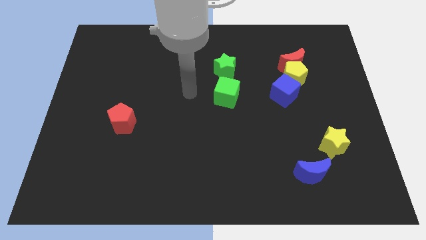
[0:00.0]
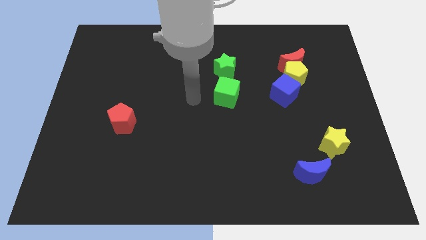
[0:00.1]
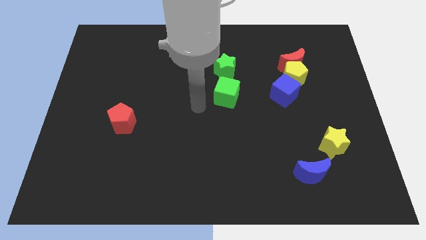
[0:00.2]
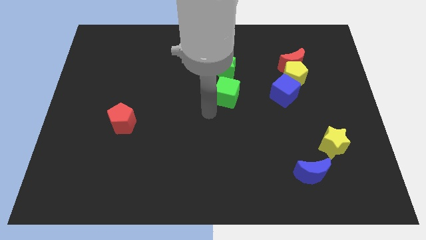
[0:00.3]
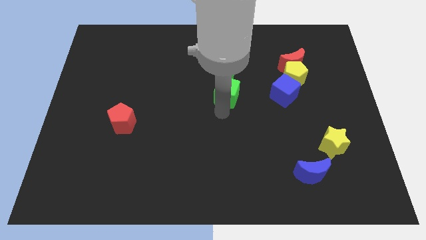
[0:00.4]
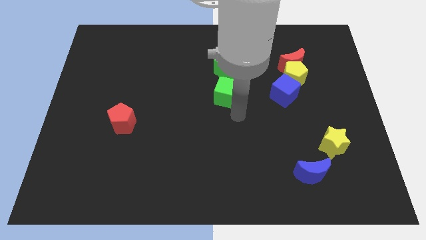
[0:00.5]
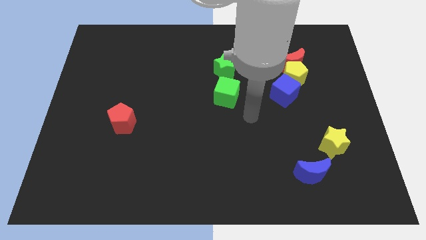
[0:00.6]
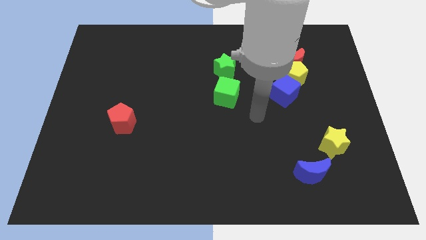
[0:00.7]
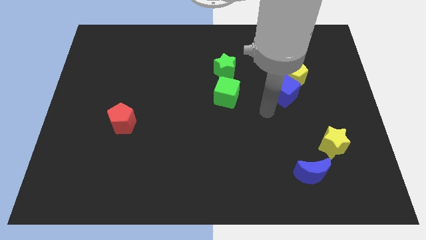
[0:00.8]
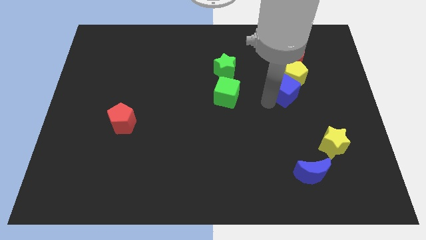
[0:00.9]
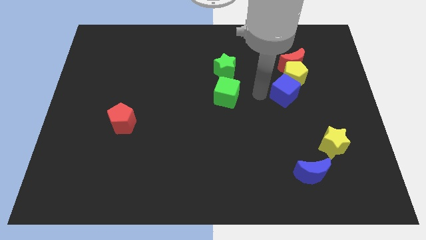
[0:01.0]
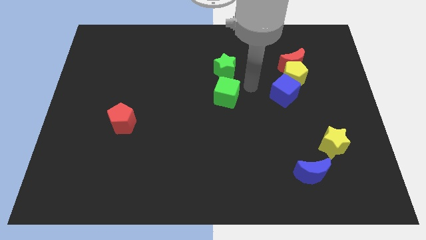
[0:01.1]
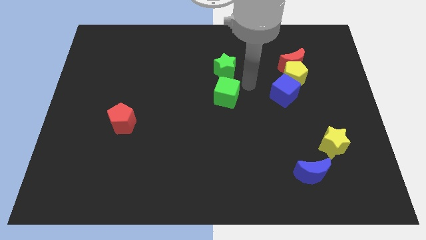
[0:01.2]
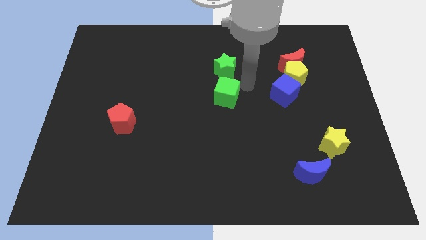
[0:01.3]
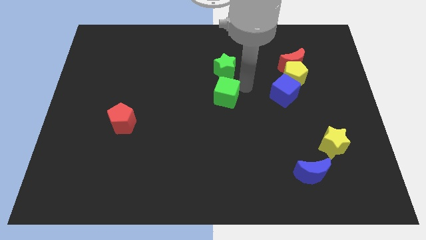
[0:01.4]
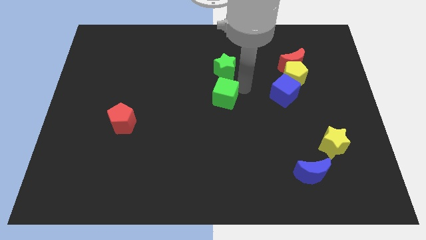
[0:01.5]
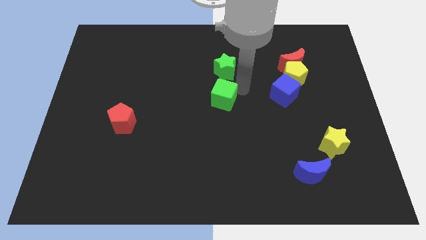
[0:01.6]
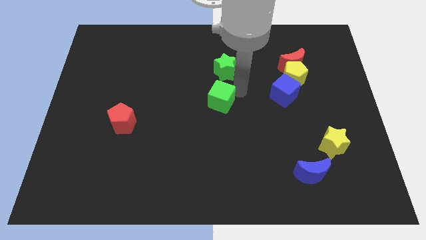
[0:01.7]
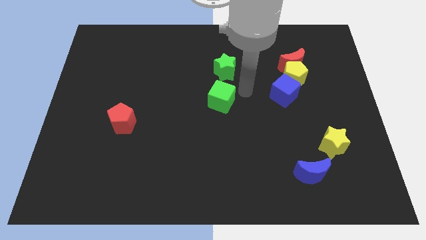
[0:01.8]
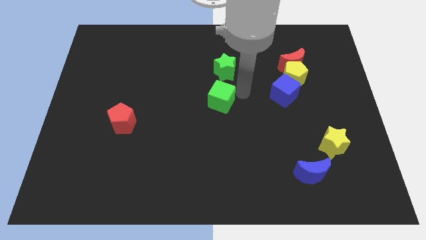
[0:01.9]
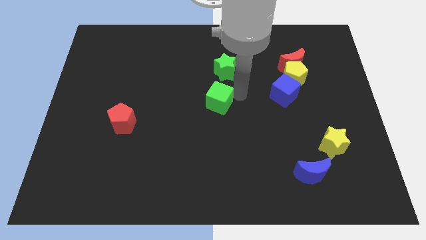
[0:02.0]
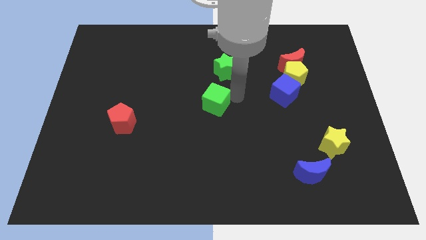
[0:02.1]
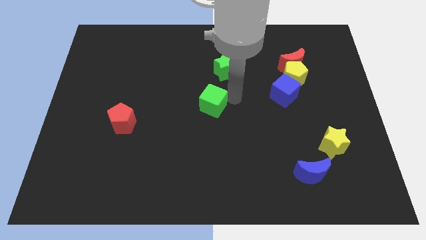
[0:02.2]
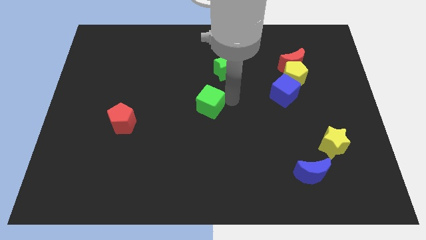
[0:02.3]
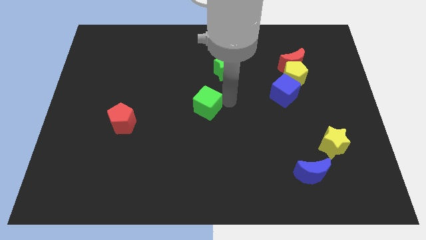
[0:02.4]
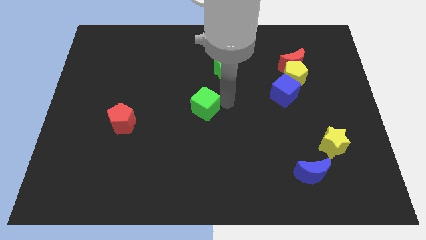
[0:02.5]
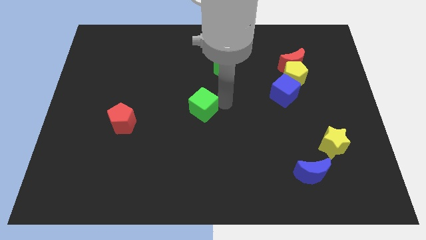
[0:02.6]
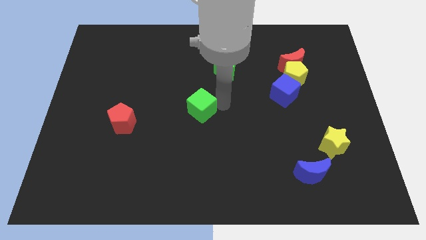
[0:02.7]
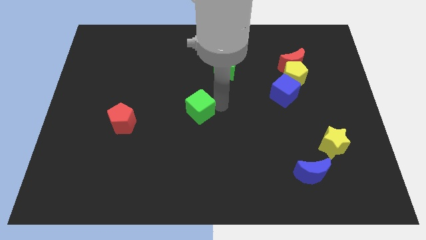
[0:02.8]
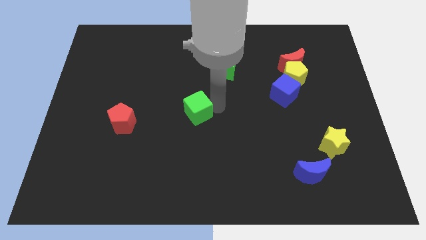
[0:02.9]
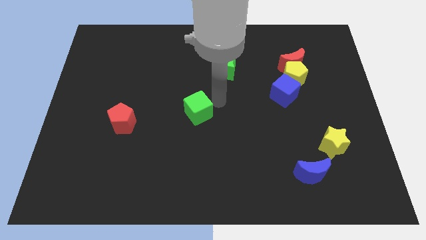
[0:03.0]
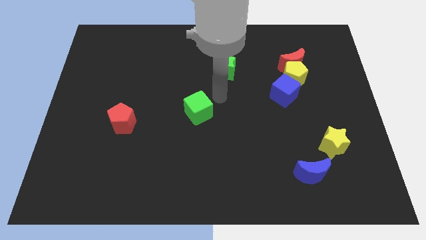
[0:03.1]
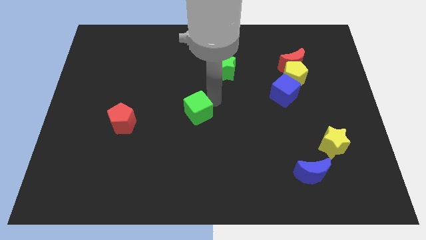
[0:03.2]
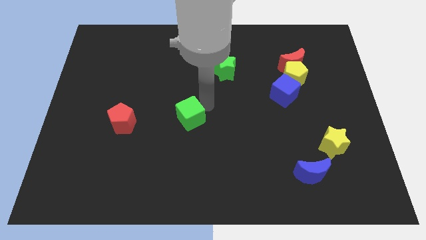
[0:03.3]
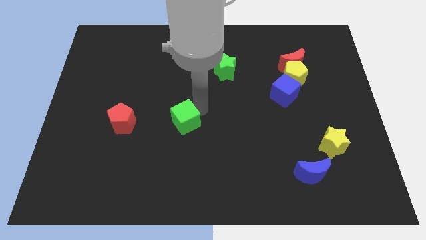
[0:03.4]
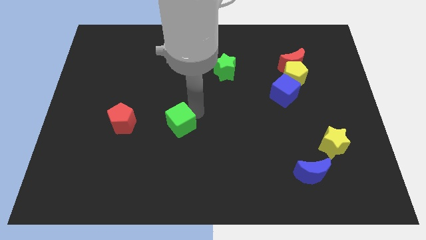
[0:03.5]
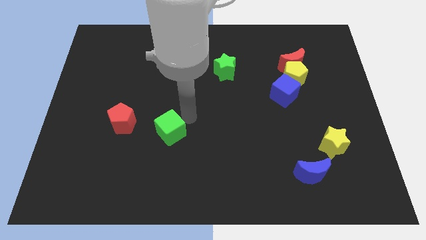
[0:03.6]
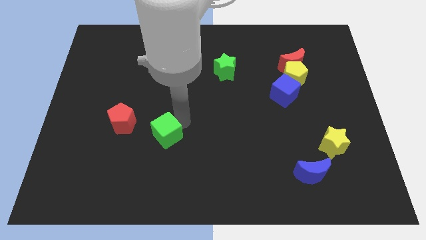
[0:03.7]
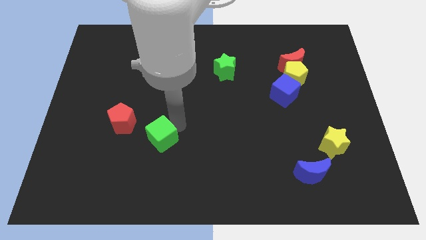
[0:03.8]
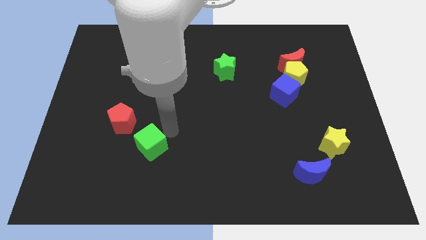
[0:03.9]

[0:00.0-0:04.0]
push the green cube diagonally down and left

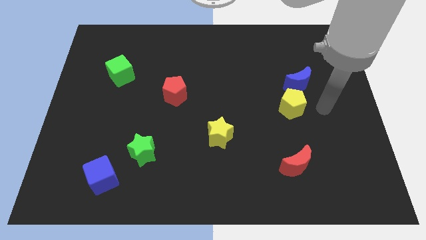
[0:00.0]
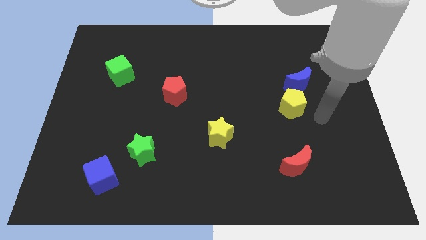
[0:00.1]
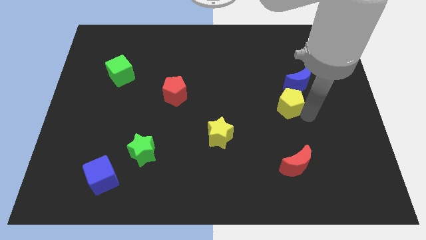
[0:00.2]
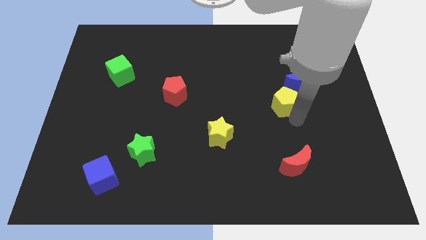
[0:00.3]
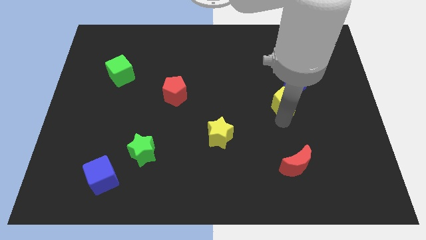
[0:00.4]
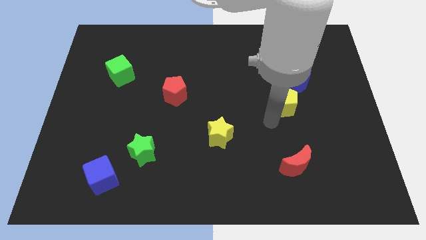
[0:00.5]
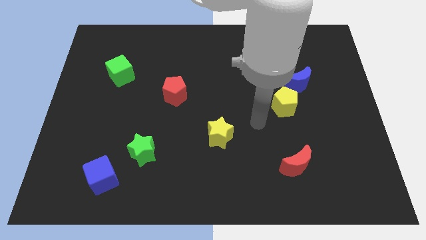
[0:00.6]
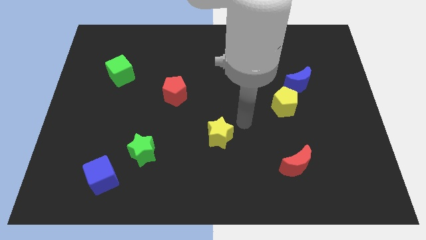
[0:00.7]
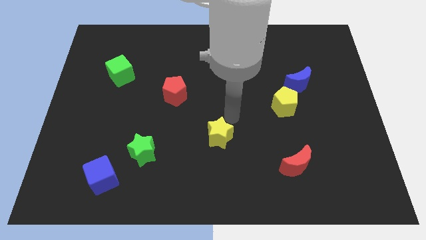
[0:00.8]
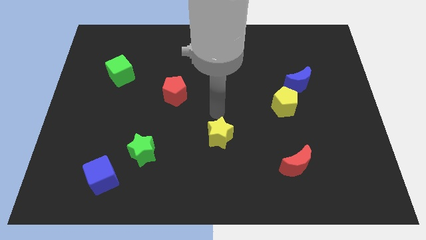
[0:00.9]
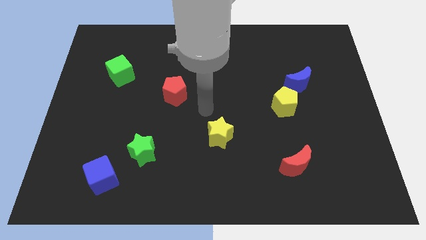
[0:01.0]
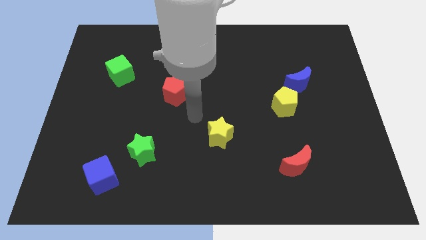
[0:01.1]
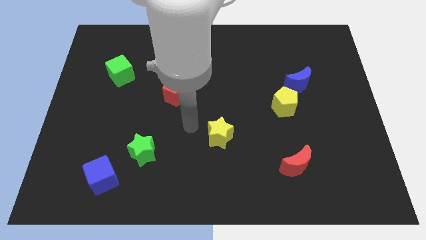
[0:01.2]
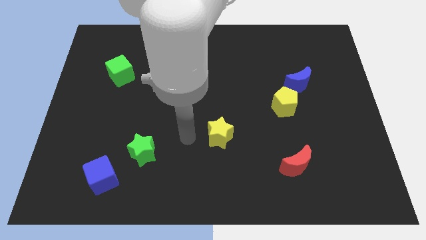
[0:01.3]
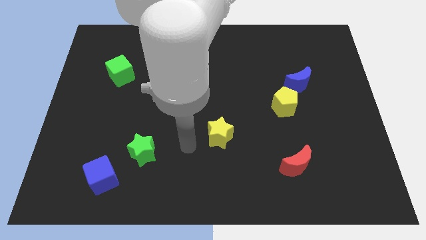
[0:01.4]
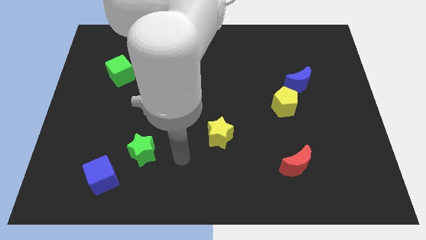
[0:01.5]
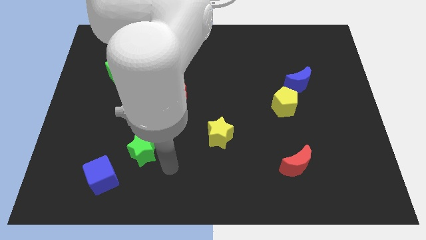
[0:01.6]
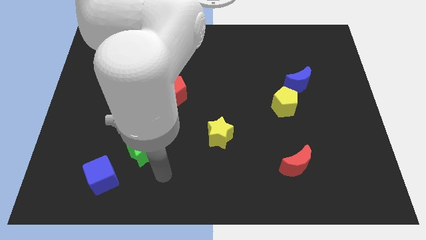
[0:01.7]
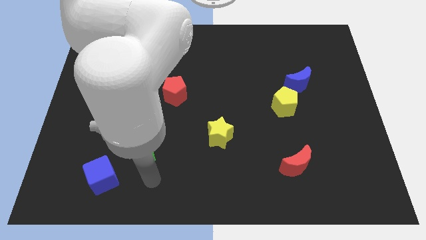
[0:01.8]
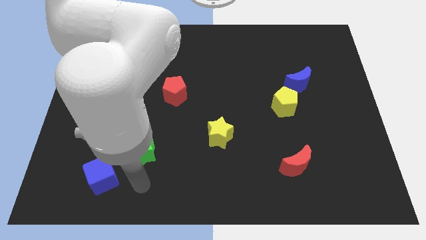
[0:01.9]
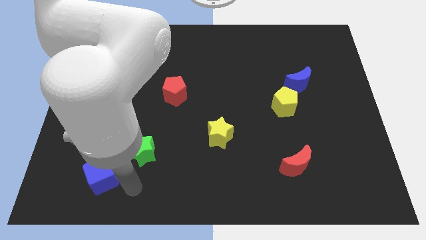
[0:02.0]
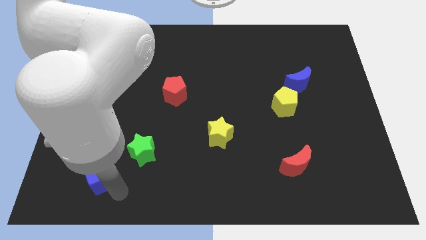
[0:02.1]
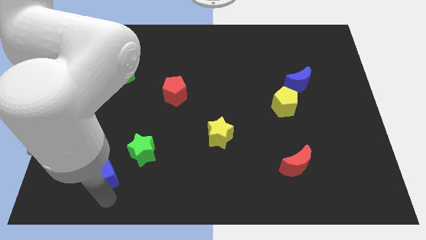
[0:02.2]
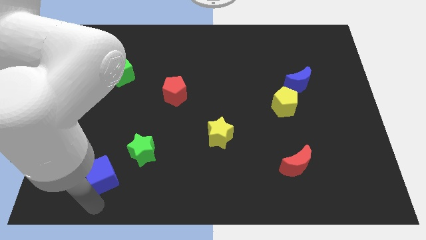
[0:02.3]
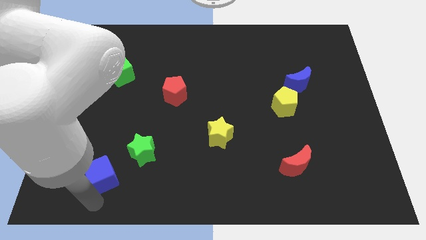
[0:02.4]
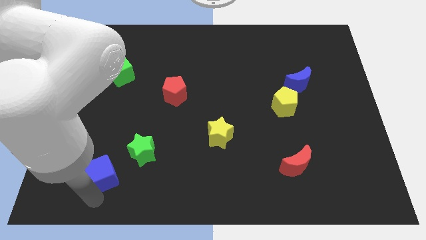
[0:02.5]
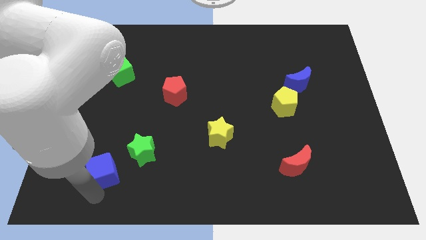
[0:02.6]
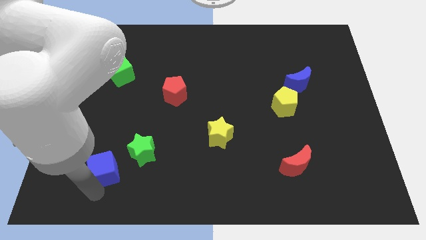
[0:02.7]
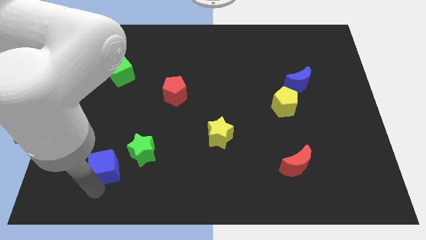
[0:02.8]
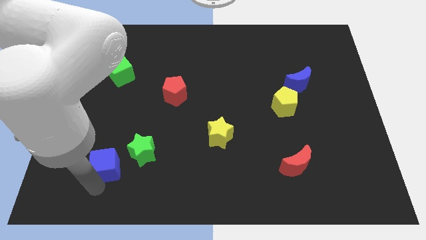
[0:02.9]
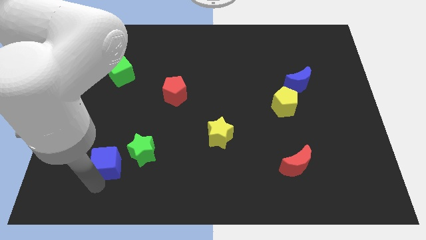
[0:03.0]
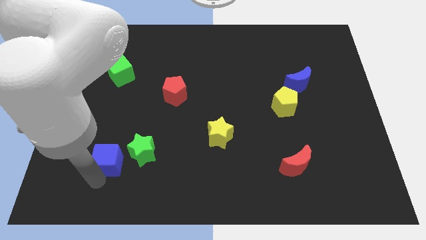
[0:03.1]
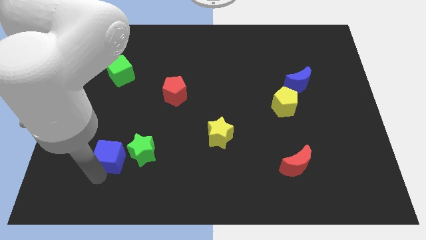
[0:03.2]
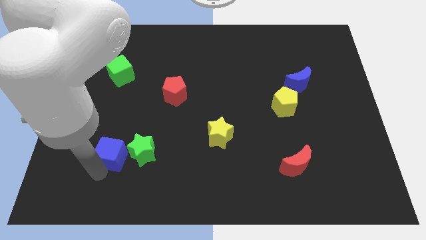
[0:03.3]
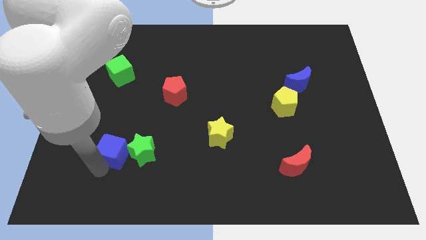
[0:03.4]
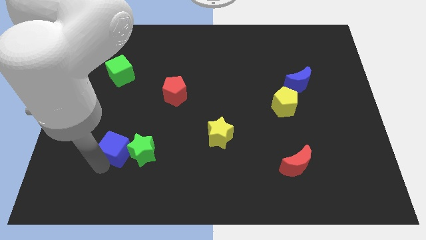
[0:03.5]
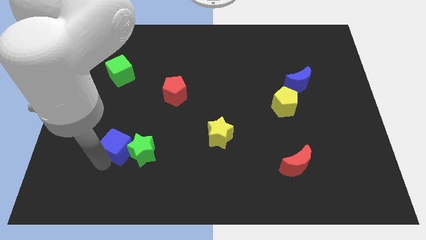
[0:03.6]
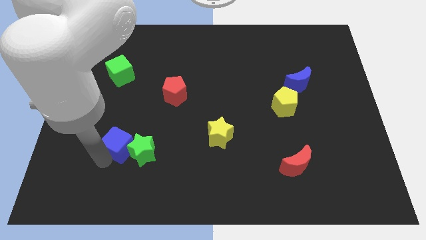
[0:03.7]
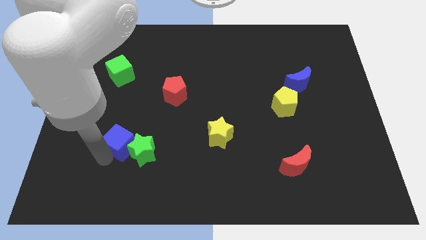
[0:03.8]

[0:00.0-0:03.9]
push the blue cube somewhat upwards and right

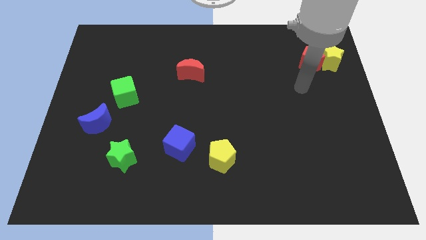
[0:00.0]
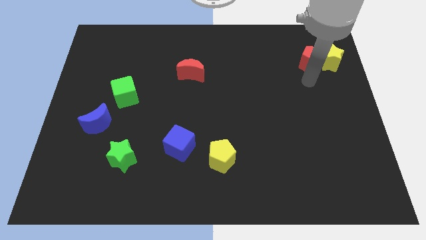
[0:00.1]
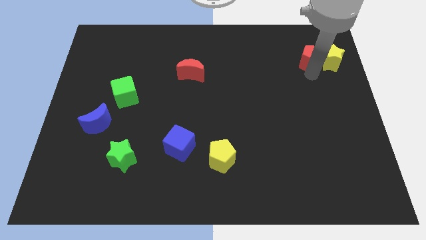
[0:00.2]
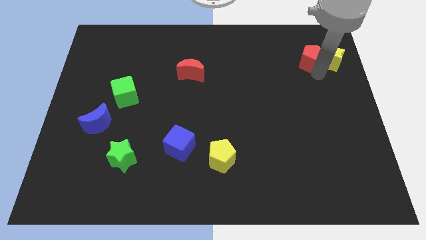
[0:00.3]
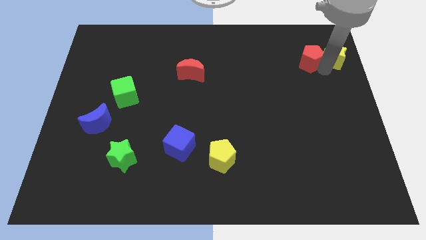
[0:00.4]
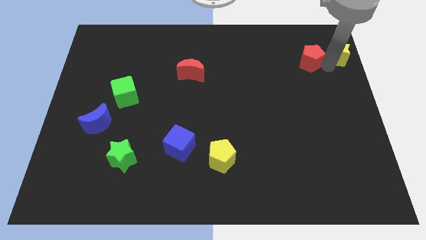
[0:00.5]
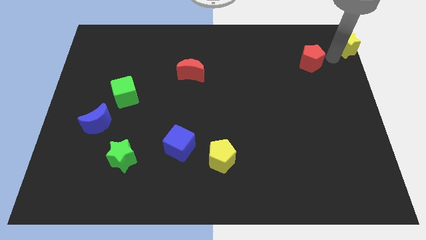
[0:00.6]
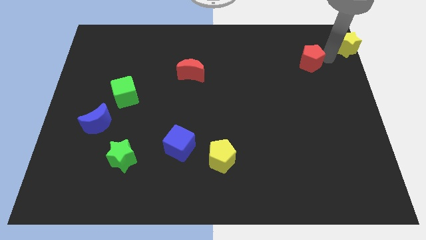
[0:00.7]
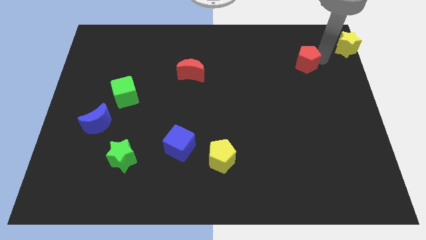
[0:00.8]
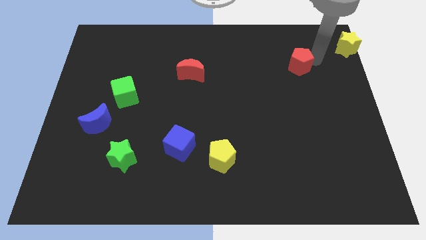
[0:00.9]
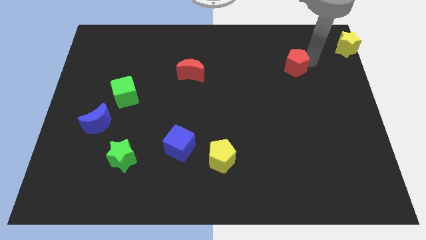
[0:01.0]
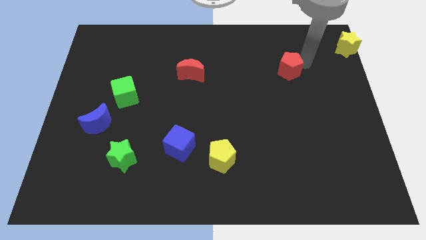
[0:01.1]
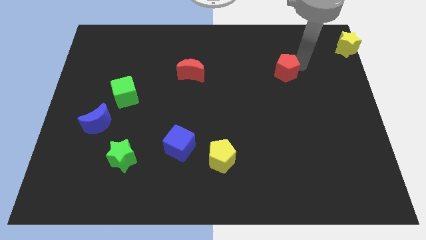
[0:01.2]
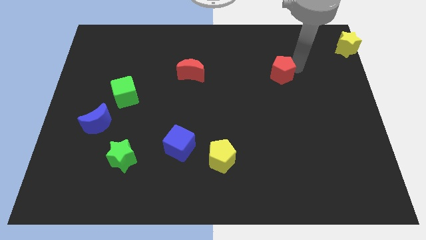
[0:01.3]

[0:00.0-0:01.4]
slightly move the red pentagon to the left
